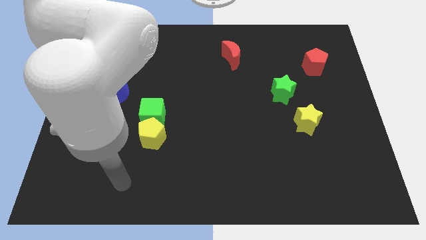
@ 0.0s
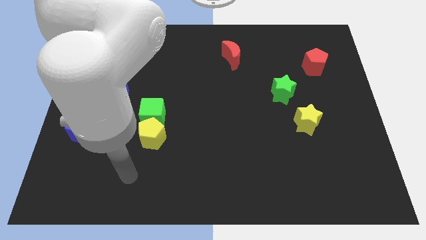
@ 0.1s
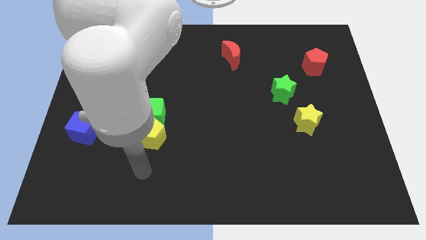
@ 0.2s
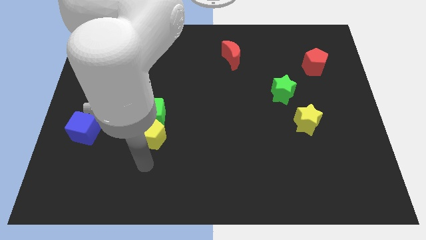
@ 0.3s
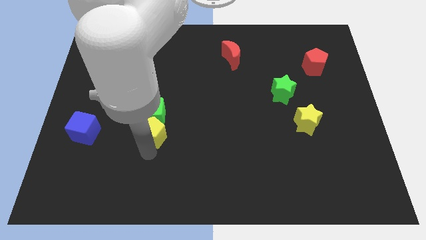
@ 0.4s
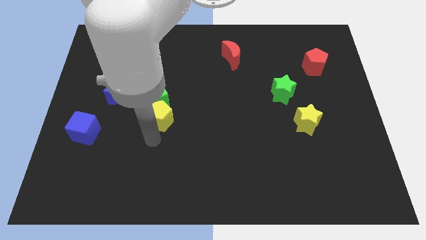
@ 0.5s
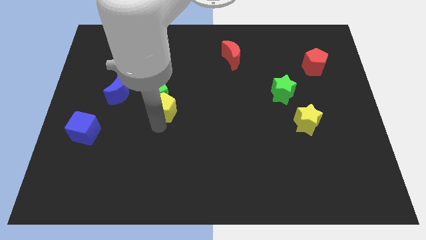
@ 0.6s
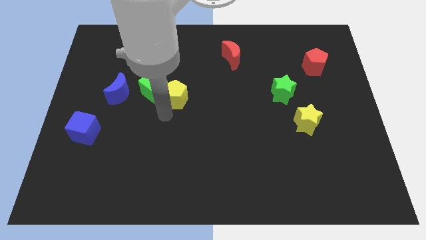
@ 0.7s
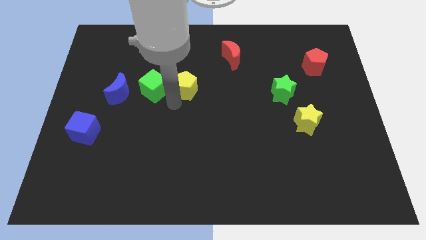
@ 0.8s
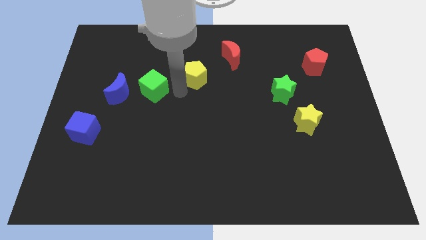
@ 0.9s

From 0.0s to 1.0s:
move the green cube away from the yellow pentagon

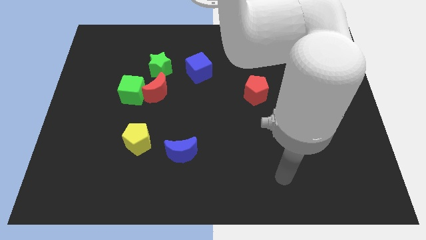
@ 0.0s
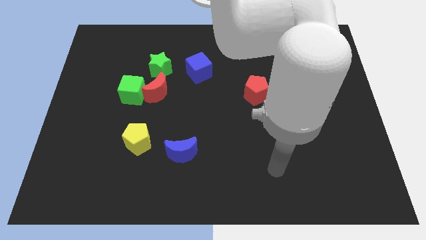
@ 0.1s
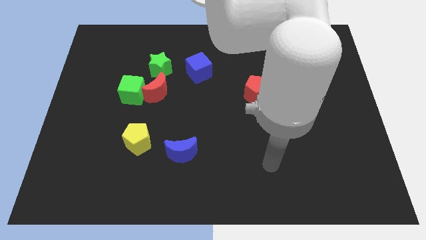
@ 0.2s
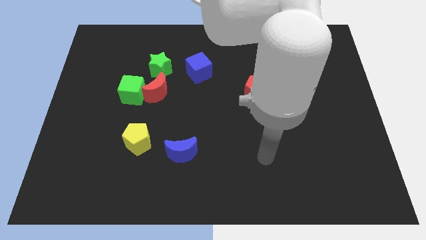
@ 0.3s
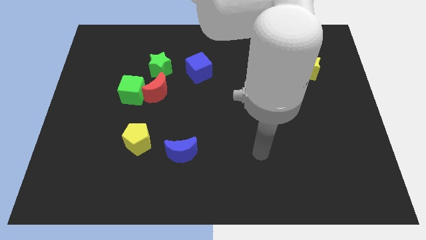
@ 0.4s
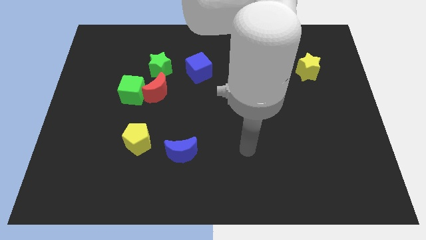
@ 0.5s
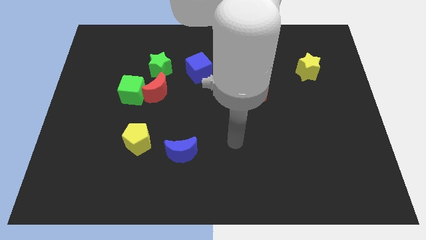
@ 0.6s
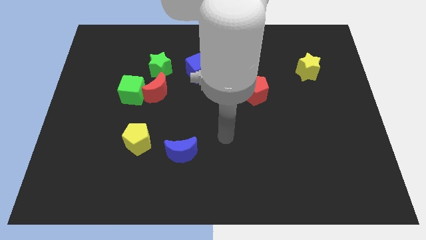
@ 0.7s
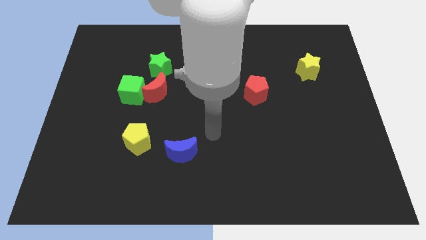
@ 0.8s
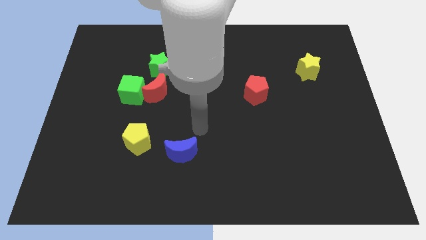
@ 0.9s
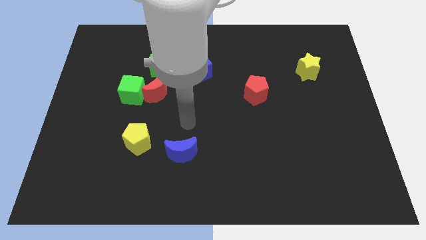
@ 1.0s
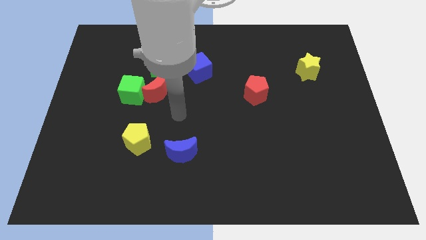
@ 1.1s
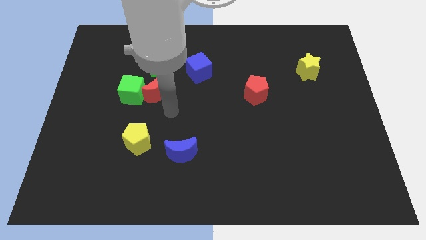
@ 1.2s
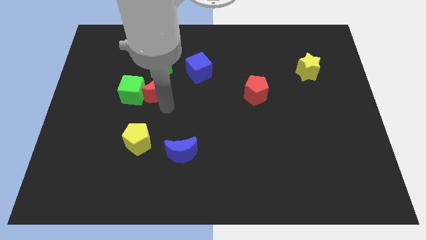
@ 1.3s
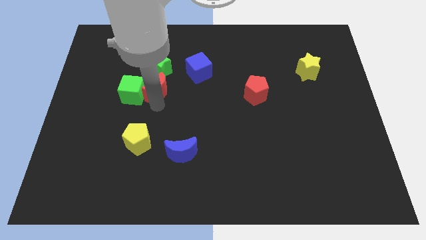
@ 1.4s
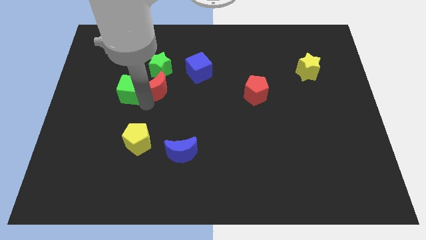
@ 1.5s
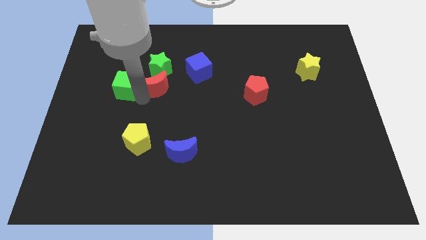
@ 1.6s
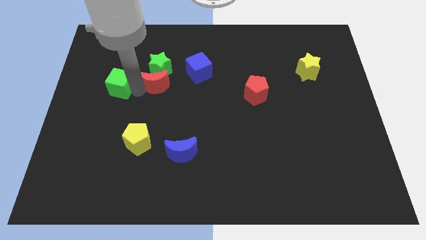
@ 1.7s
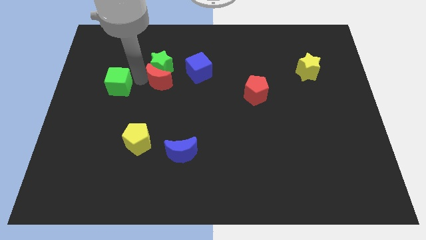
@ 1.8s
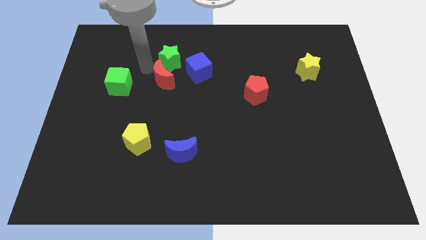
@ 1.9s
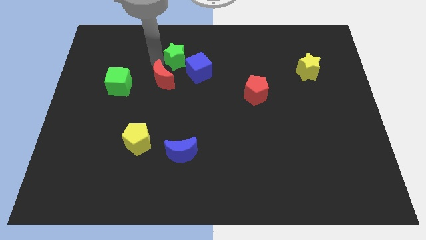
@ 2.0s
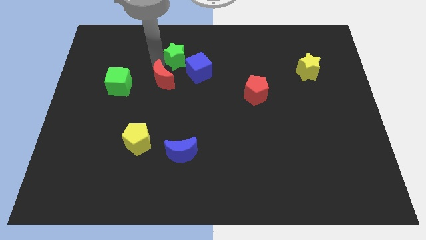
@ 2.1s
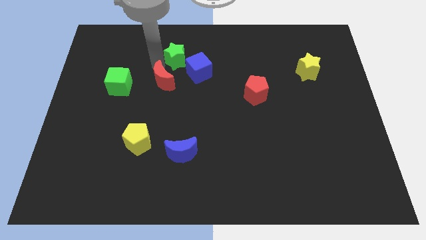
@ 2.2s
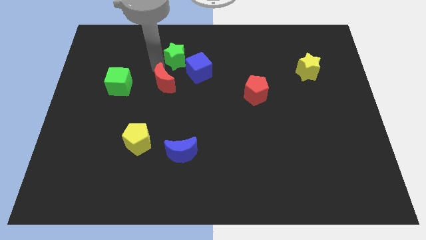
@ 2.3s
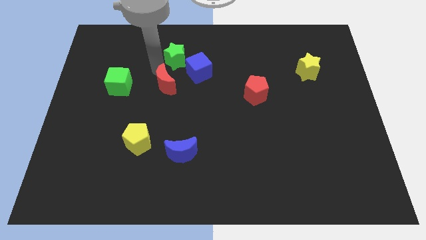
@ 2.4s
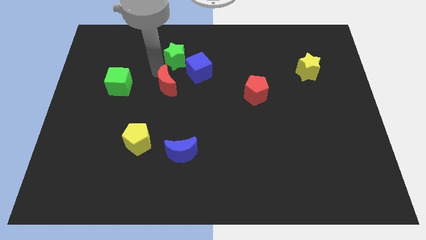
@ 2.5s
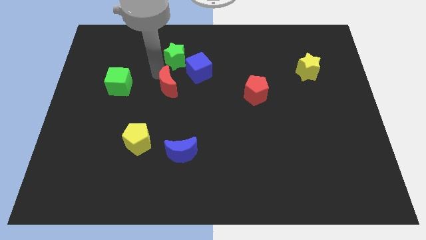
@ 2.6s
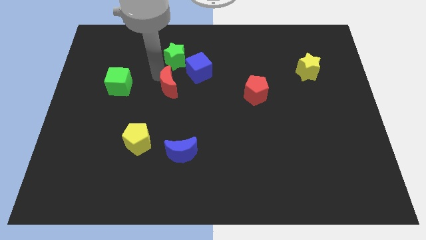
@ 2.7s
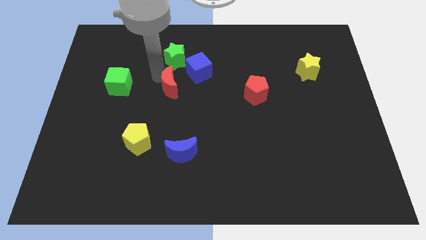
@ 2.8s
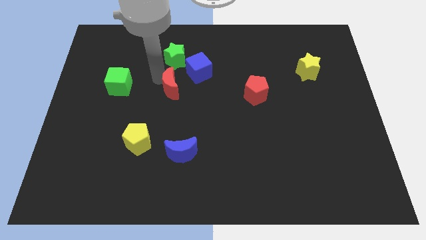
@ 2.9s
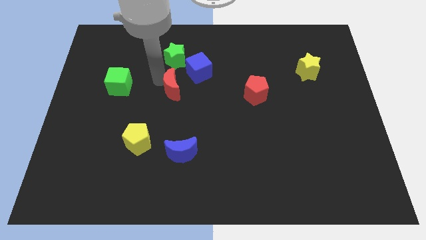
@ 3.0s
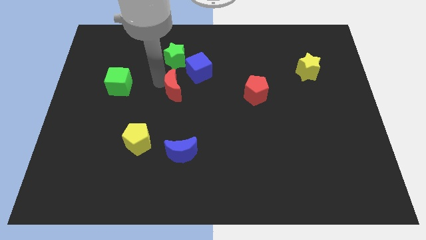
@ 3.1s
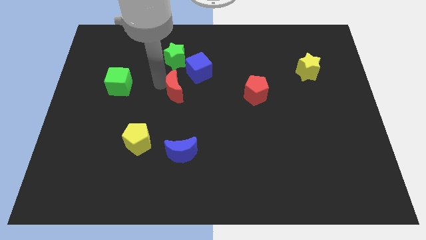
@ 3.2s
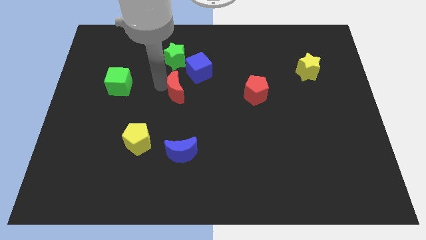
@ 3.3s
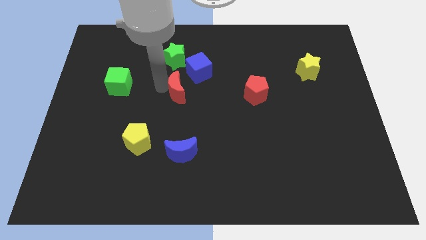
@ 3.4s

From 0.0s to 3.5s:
move the red moon away from the green cube and green star

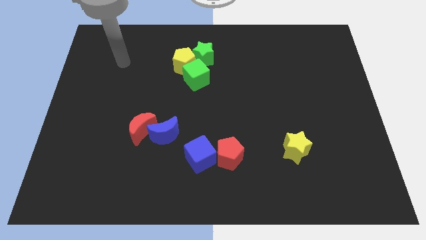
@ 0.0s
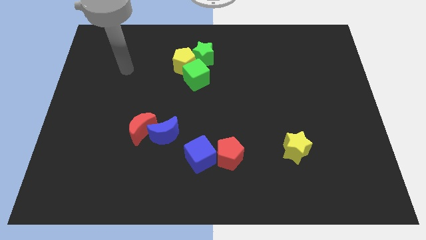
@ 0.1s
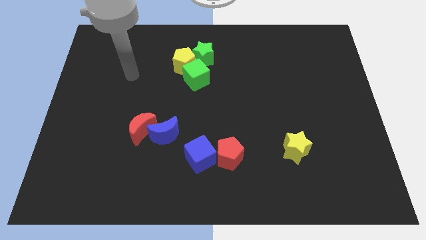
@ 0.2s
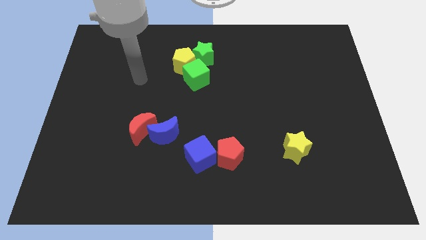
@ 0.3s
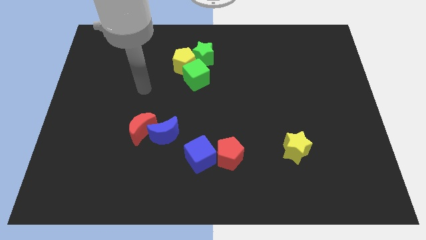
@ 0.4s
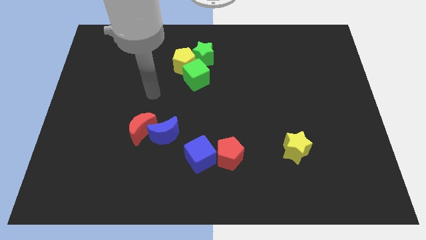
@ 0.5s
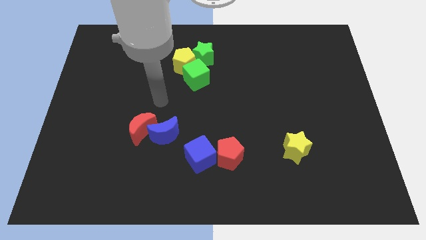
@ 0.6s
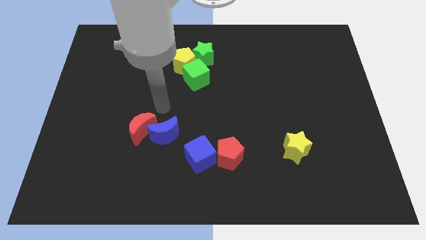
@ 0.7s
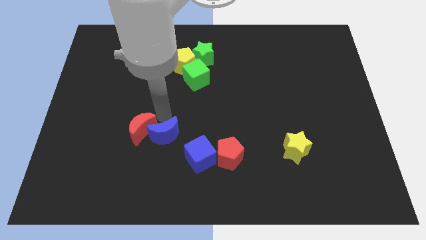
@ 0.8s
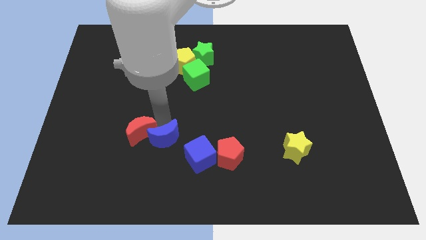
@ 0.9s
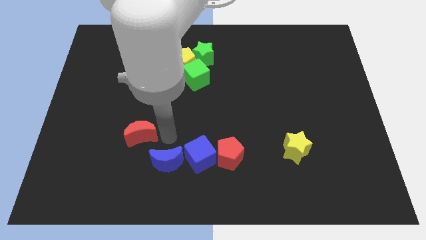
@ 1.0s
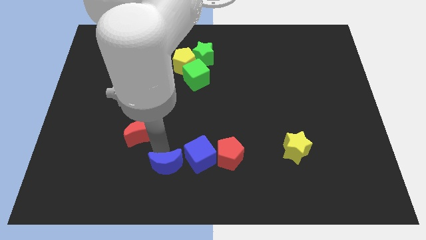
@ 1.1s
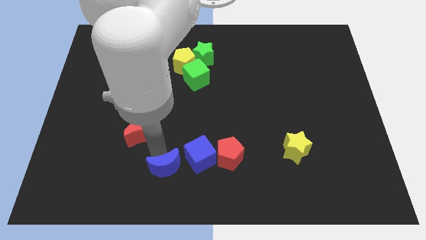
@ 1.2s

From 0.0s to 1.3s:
move the red moon away from the blue moon

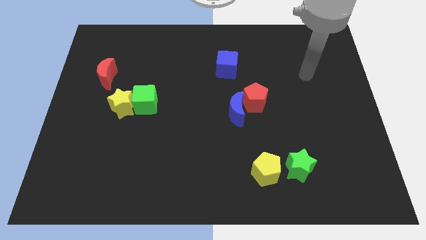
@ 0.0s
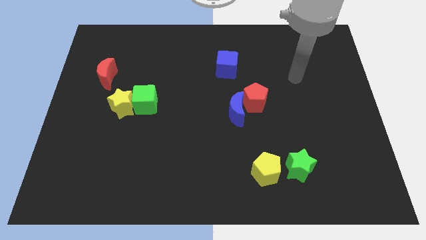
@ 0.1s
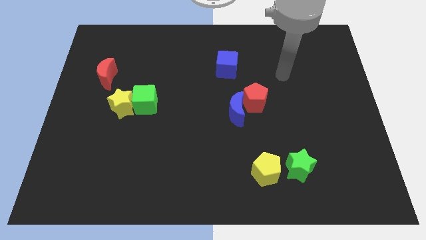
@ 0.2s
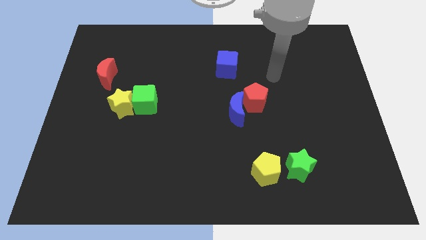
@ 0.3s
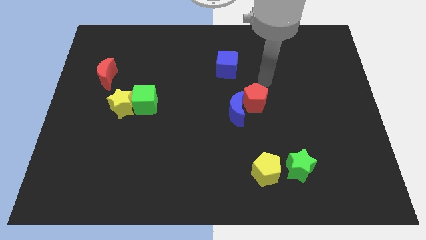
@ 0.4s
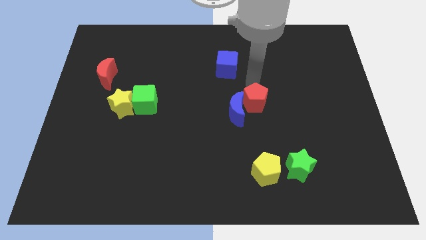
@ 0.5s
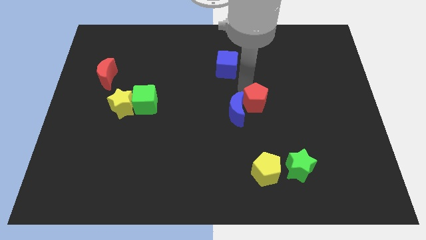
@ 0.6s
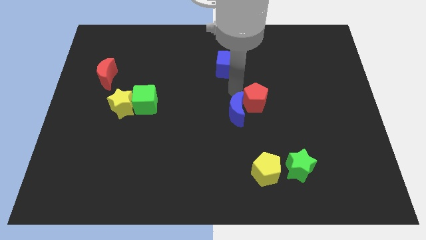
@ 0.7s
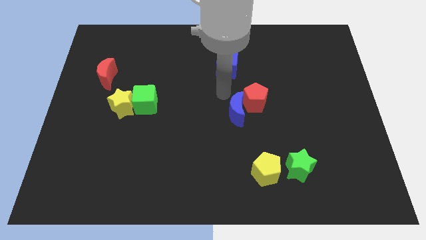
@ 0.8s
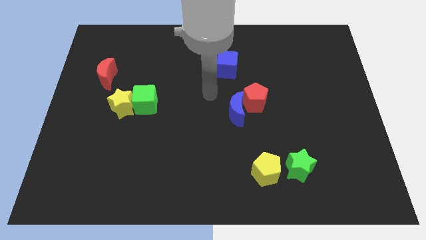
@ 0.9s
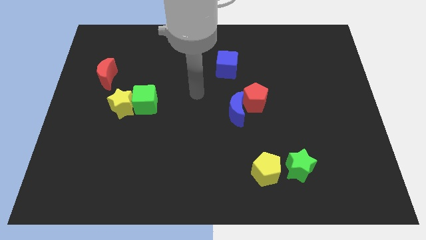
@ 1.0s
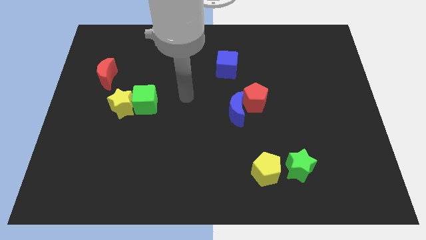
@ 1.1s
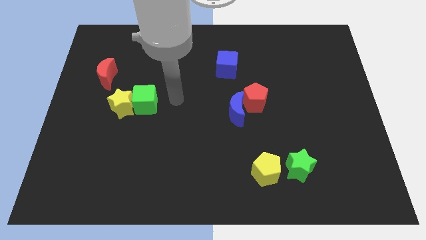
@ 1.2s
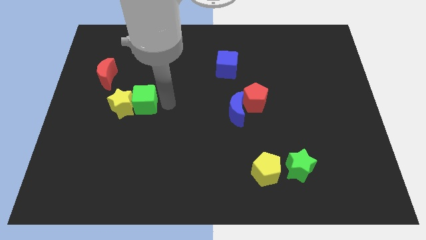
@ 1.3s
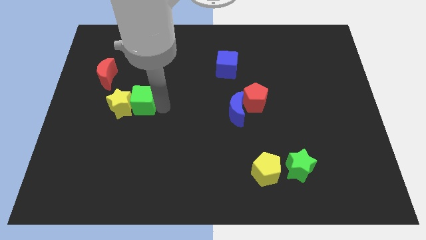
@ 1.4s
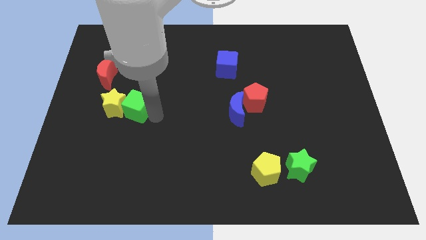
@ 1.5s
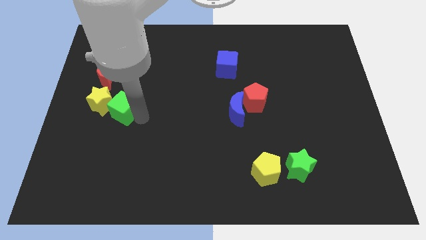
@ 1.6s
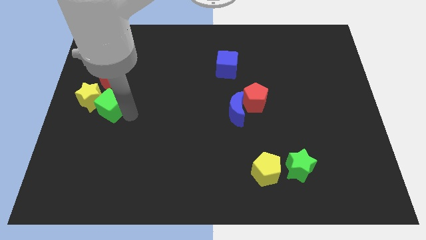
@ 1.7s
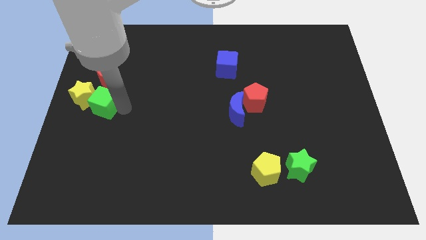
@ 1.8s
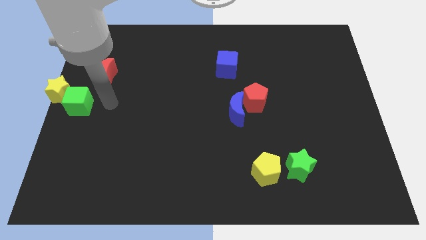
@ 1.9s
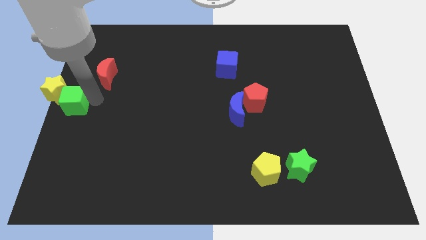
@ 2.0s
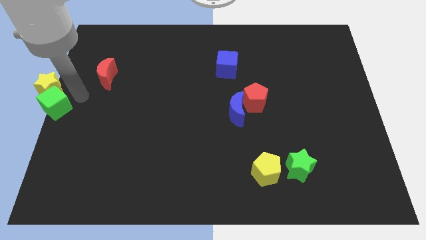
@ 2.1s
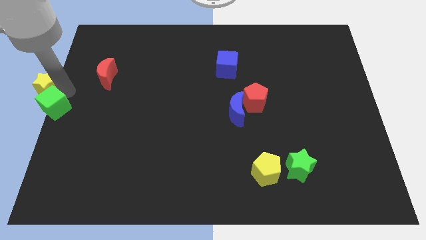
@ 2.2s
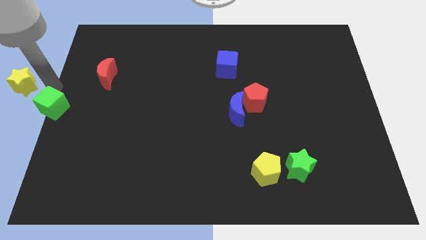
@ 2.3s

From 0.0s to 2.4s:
separate the green cube from the yellow star

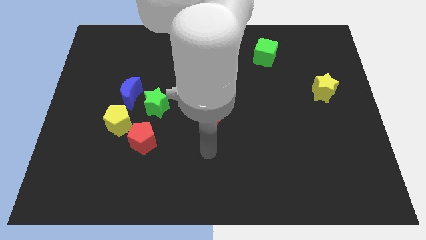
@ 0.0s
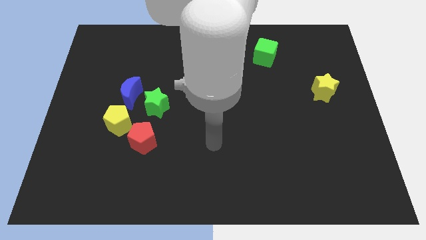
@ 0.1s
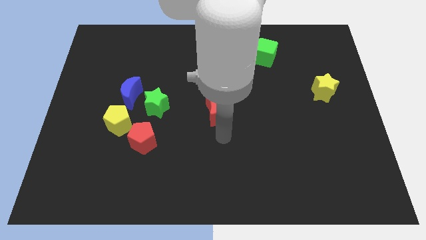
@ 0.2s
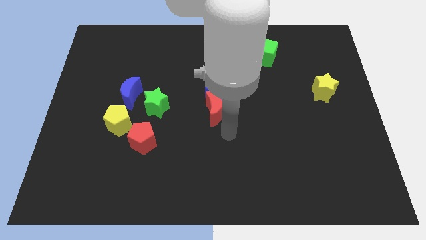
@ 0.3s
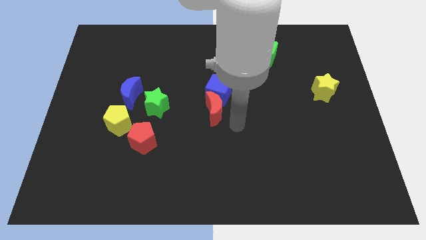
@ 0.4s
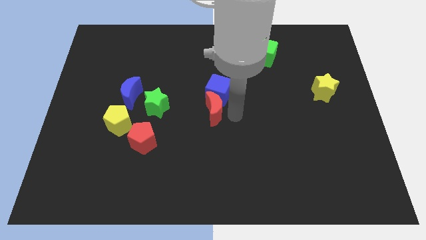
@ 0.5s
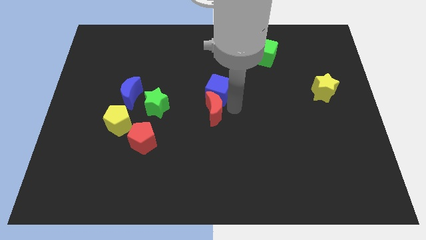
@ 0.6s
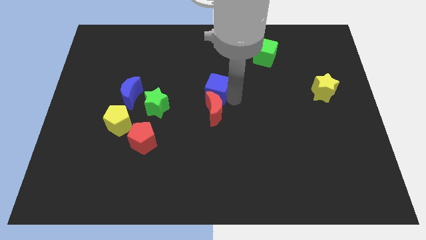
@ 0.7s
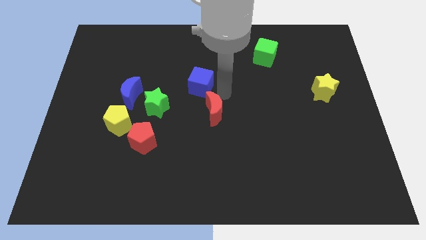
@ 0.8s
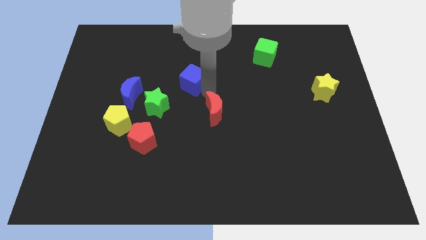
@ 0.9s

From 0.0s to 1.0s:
move the red moon away from the blue cube

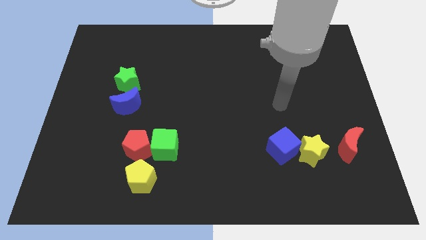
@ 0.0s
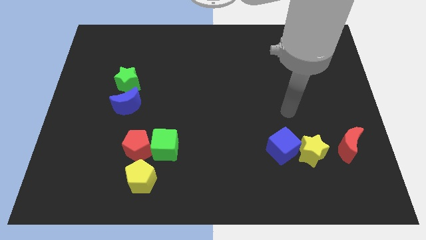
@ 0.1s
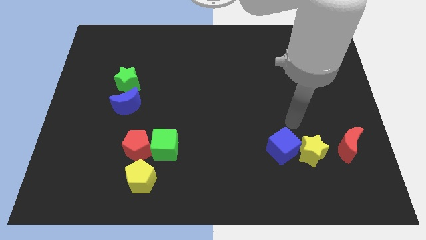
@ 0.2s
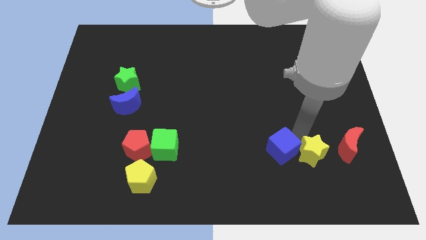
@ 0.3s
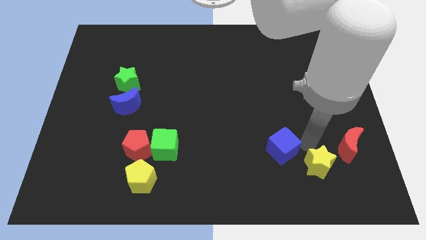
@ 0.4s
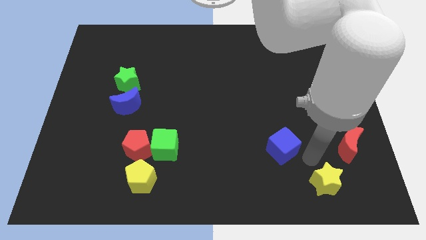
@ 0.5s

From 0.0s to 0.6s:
move the blue cube away from the yellow star
